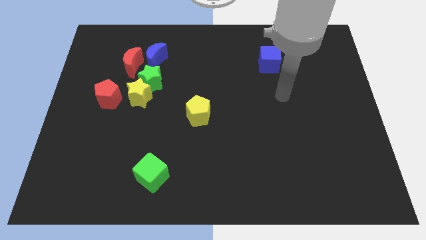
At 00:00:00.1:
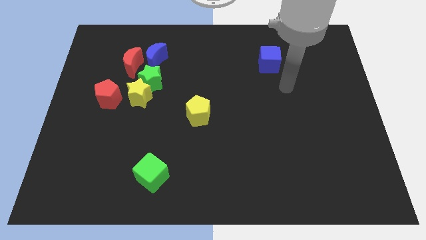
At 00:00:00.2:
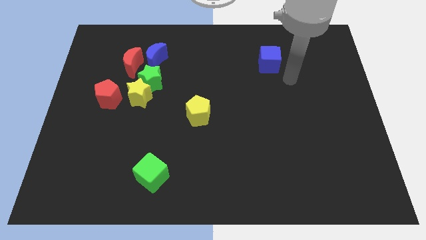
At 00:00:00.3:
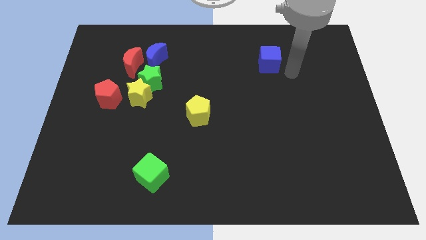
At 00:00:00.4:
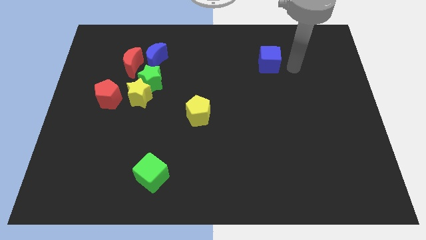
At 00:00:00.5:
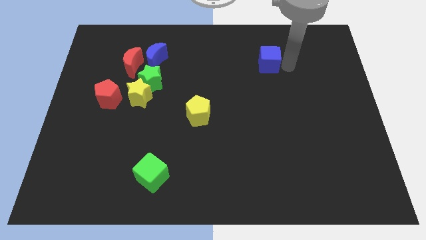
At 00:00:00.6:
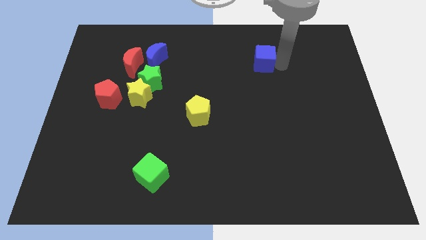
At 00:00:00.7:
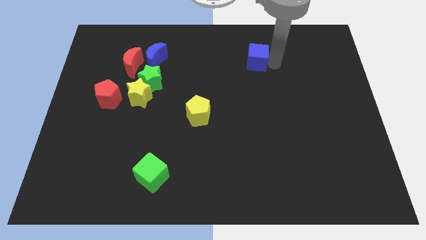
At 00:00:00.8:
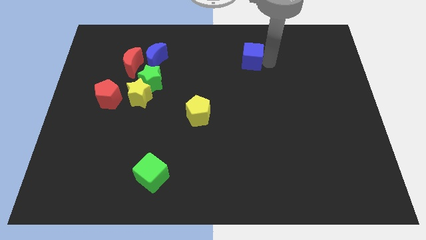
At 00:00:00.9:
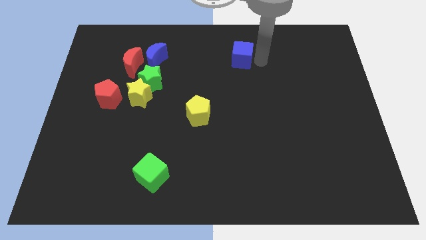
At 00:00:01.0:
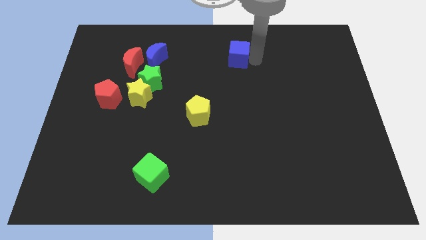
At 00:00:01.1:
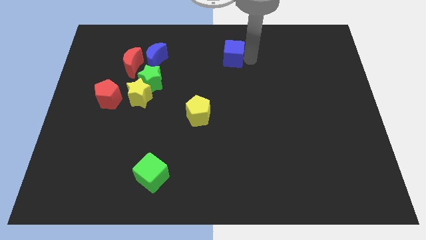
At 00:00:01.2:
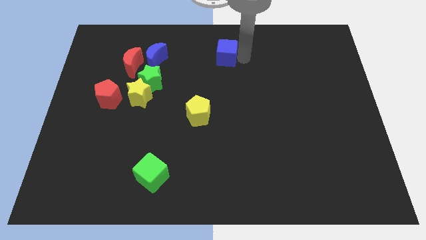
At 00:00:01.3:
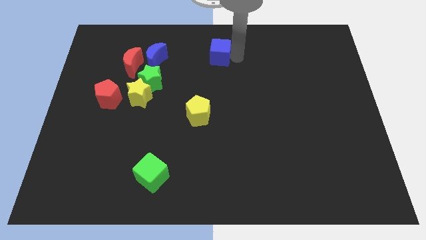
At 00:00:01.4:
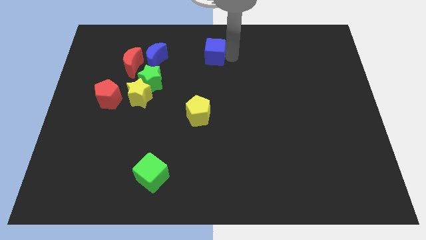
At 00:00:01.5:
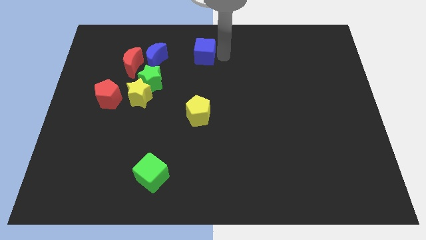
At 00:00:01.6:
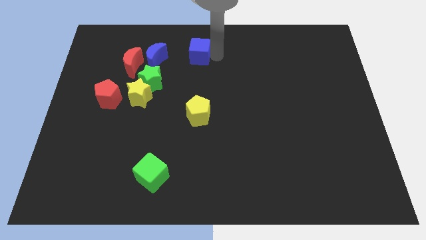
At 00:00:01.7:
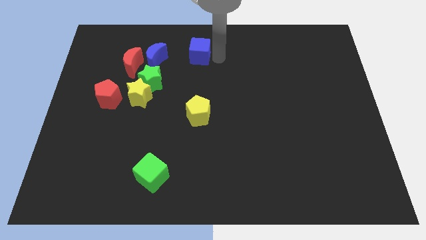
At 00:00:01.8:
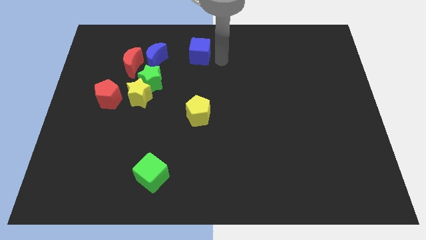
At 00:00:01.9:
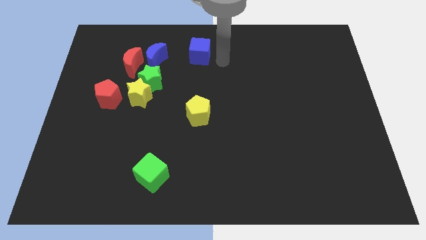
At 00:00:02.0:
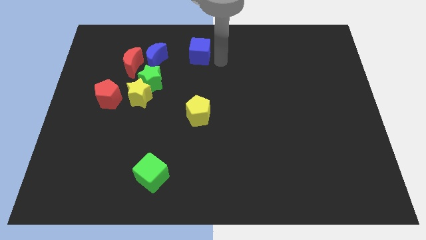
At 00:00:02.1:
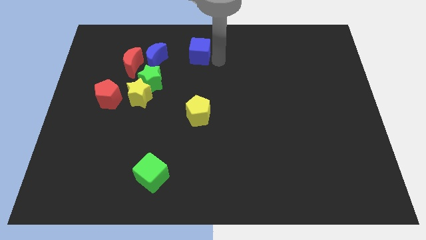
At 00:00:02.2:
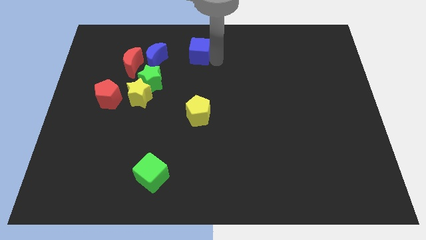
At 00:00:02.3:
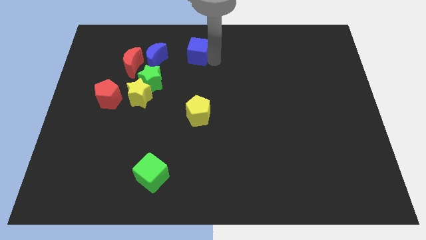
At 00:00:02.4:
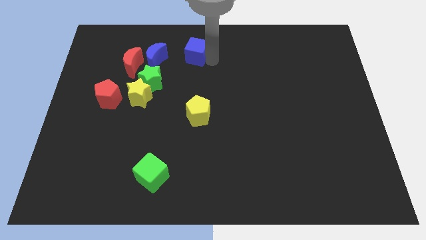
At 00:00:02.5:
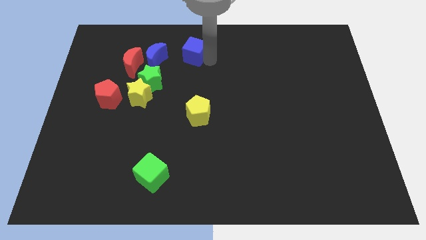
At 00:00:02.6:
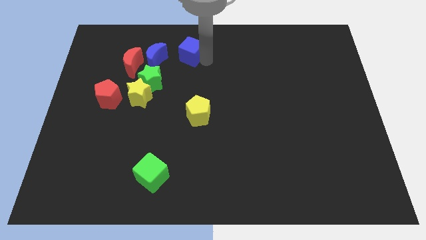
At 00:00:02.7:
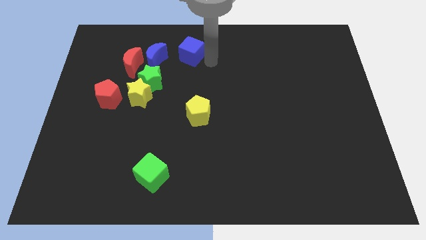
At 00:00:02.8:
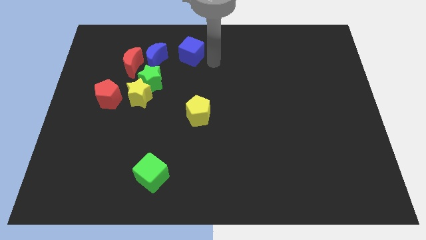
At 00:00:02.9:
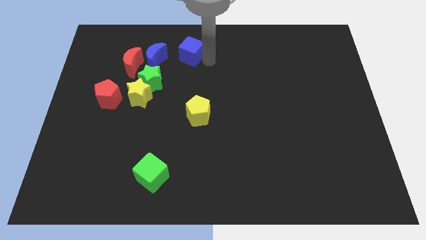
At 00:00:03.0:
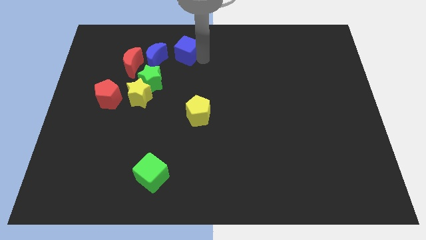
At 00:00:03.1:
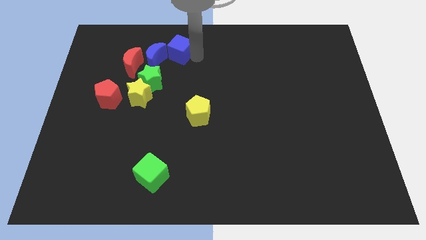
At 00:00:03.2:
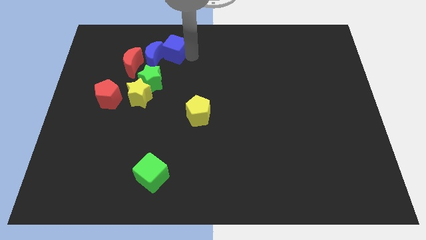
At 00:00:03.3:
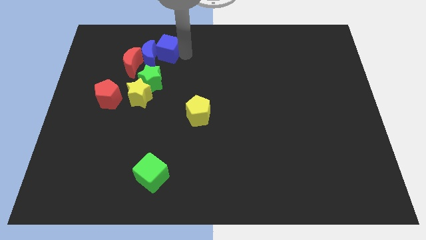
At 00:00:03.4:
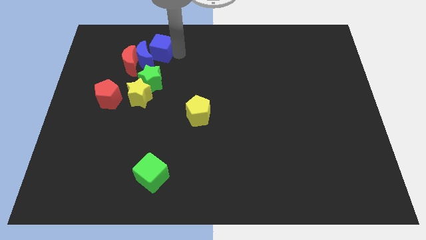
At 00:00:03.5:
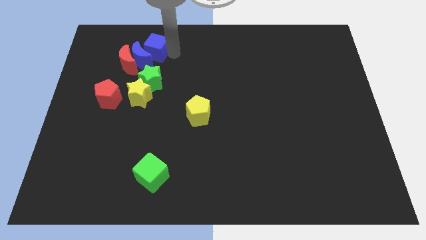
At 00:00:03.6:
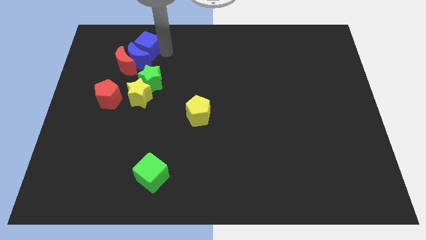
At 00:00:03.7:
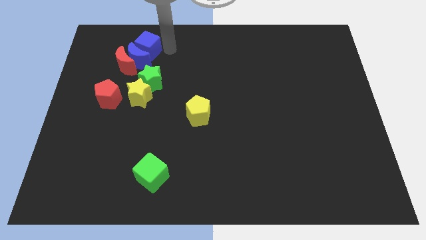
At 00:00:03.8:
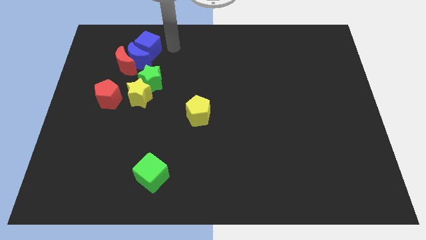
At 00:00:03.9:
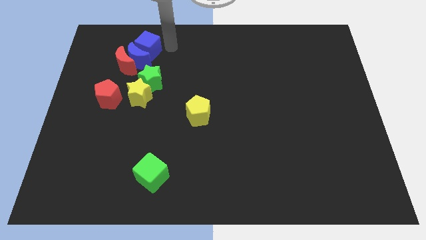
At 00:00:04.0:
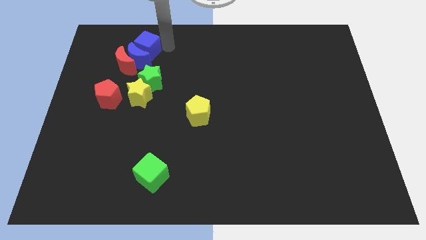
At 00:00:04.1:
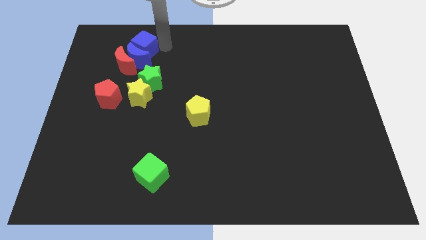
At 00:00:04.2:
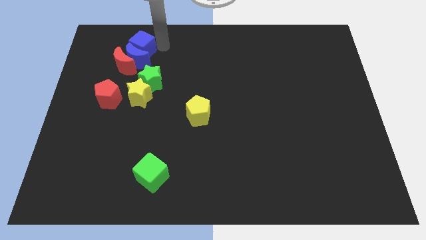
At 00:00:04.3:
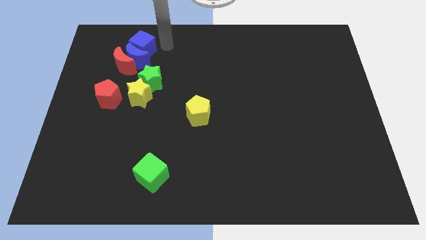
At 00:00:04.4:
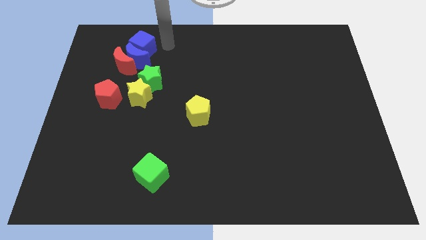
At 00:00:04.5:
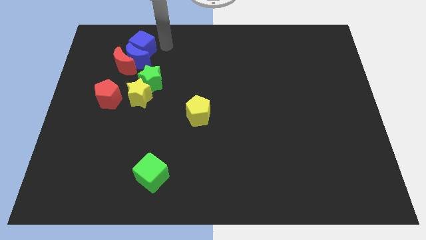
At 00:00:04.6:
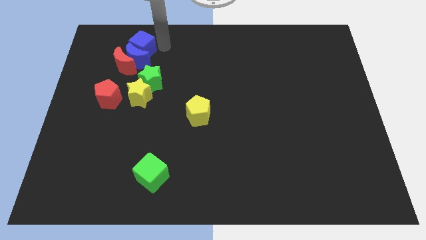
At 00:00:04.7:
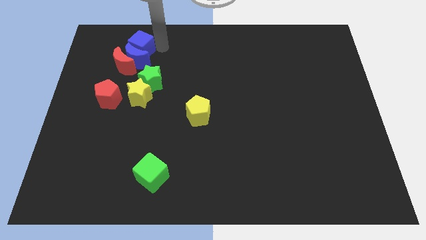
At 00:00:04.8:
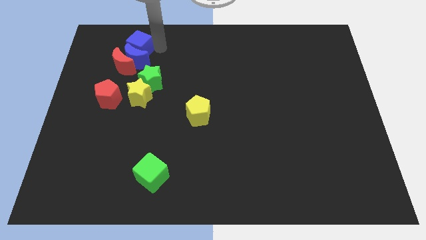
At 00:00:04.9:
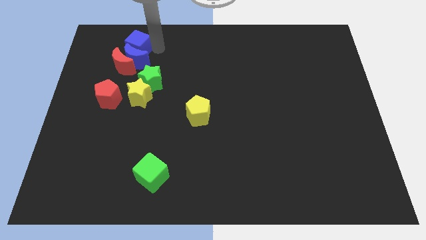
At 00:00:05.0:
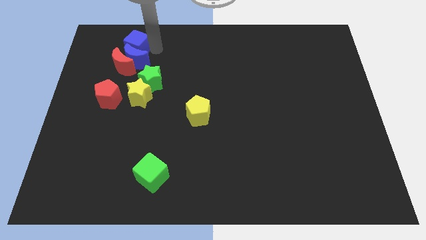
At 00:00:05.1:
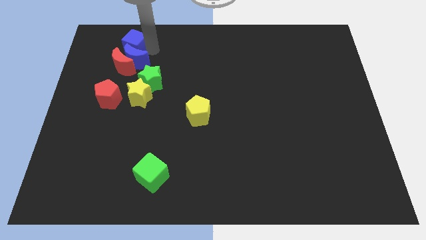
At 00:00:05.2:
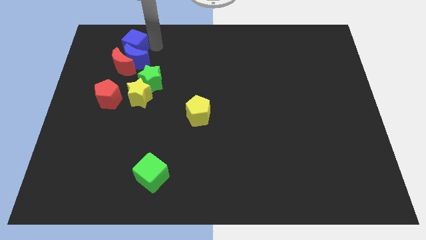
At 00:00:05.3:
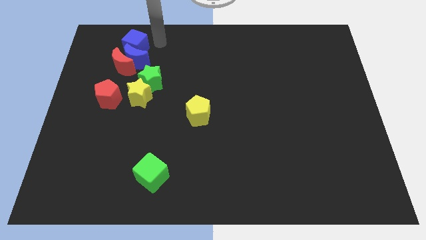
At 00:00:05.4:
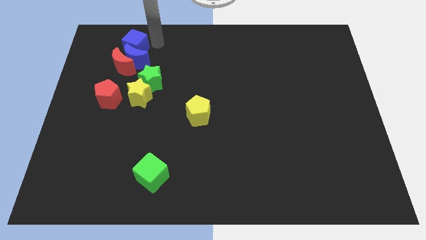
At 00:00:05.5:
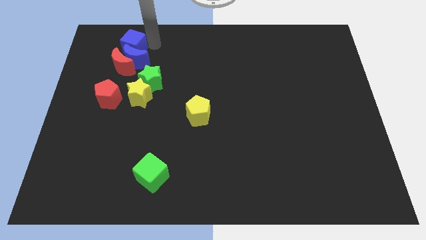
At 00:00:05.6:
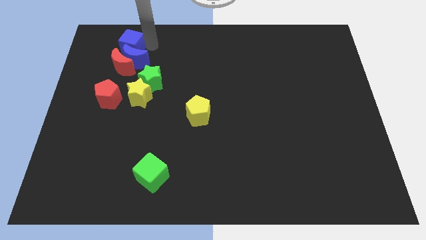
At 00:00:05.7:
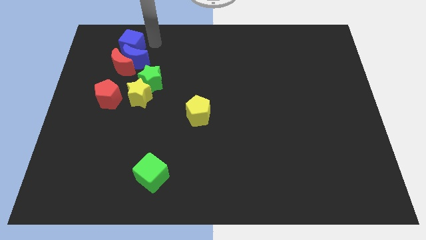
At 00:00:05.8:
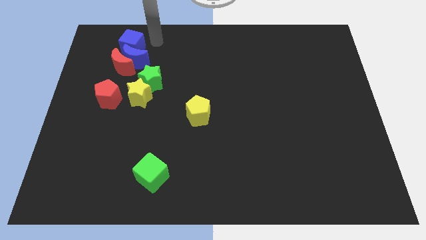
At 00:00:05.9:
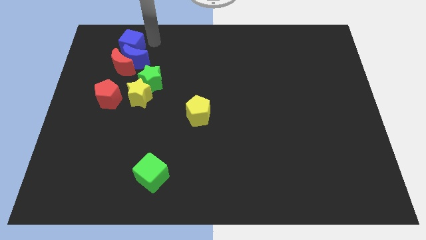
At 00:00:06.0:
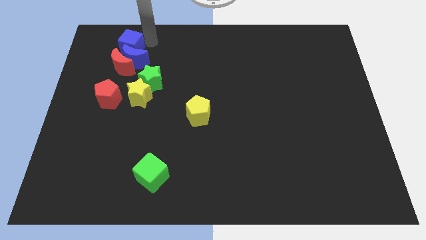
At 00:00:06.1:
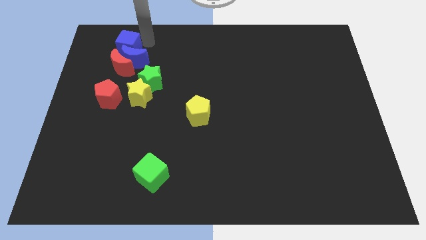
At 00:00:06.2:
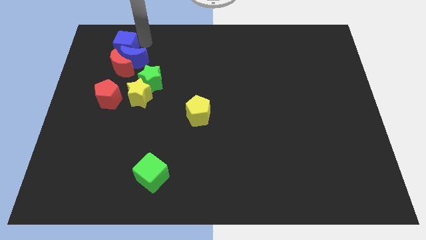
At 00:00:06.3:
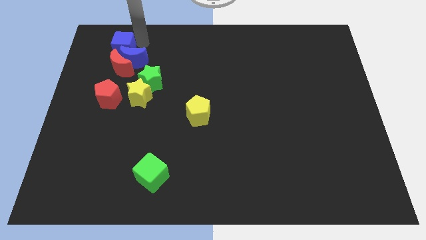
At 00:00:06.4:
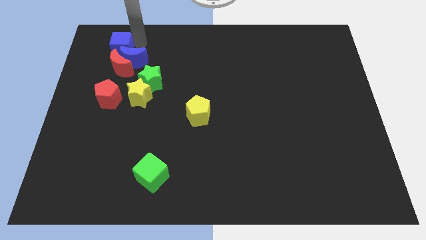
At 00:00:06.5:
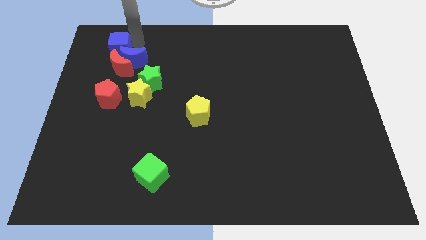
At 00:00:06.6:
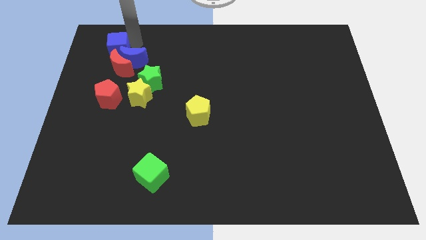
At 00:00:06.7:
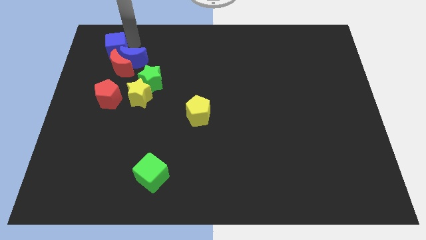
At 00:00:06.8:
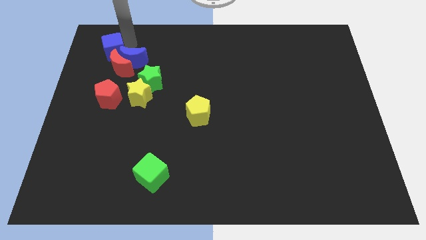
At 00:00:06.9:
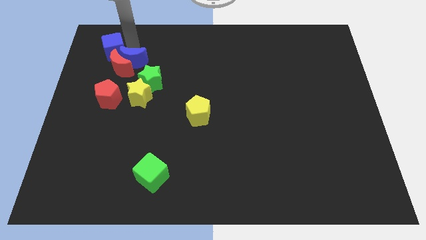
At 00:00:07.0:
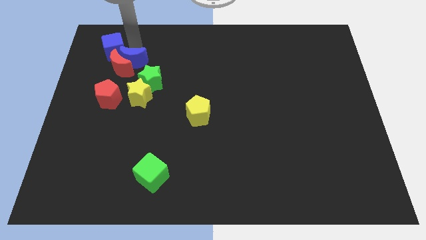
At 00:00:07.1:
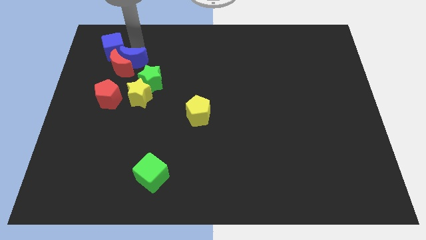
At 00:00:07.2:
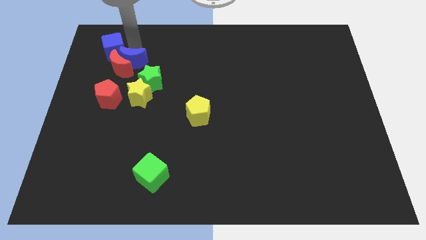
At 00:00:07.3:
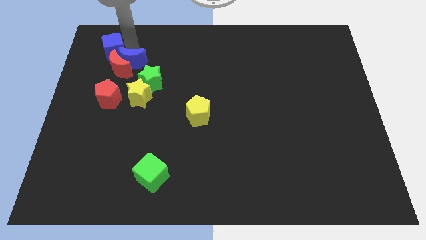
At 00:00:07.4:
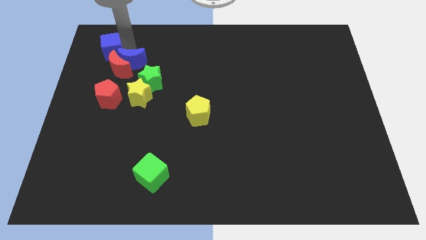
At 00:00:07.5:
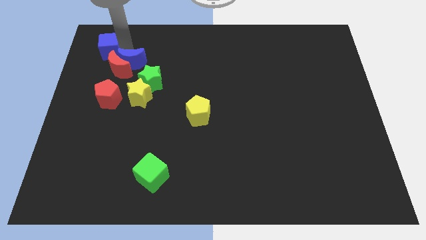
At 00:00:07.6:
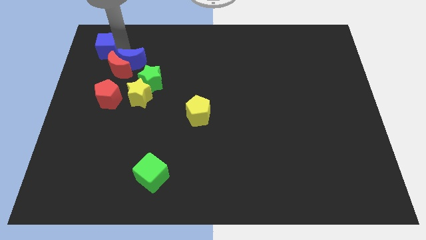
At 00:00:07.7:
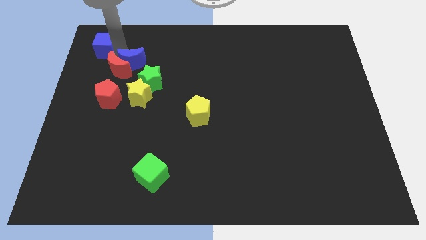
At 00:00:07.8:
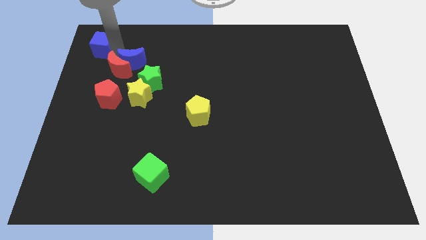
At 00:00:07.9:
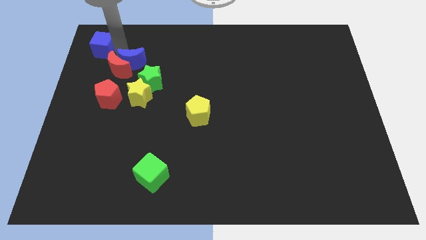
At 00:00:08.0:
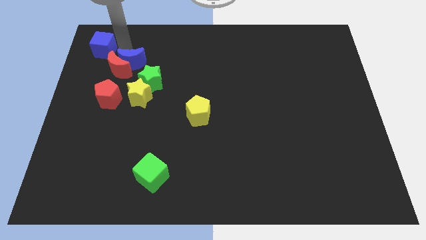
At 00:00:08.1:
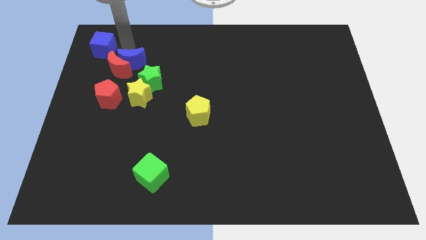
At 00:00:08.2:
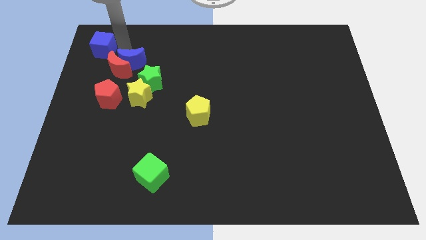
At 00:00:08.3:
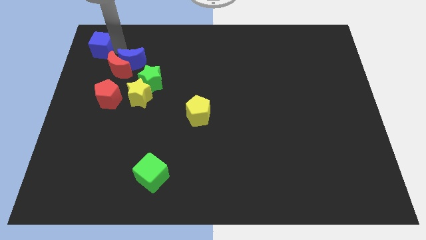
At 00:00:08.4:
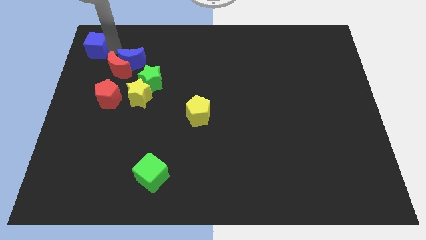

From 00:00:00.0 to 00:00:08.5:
move the blue cube to the top left of the board
